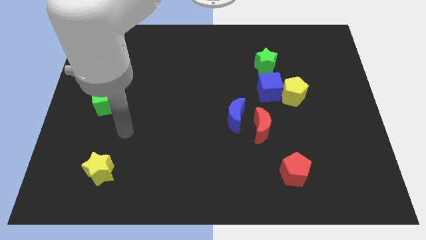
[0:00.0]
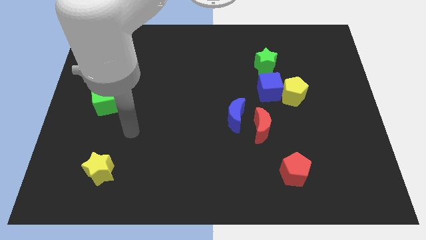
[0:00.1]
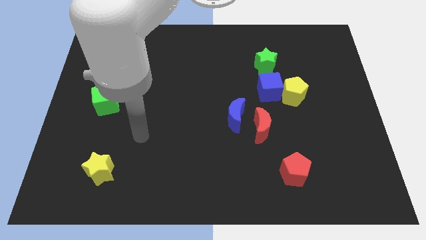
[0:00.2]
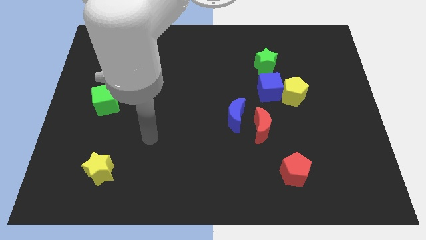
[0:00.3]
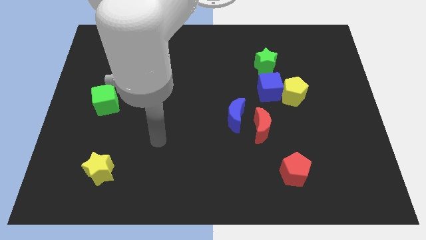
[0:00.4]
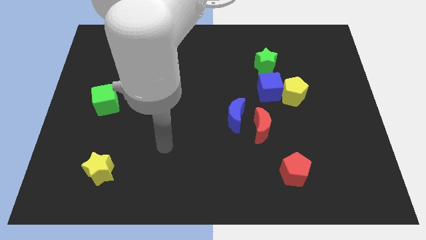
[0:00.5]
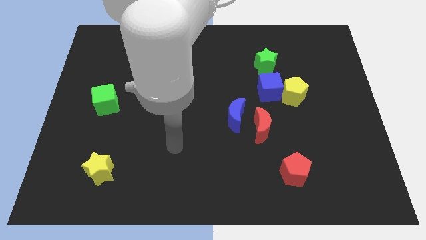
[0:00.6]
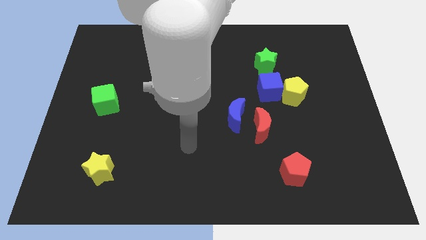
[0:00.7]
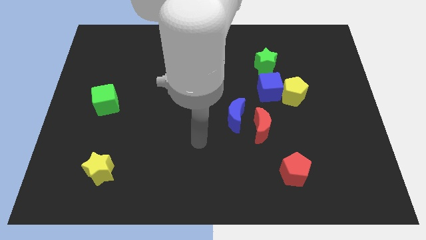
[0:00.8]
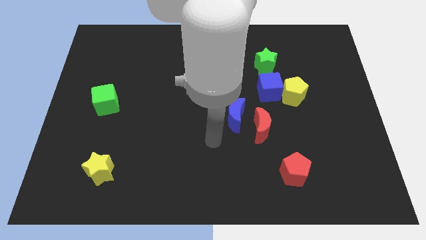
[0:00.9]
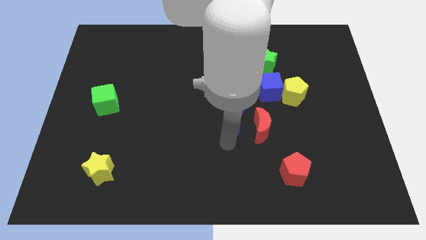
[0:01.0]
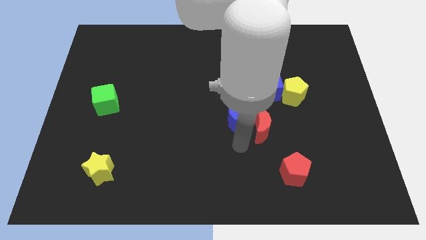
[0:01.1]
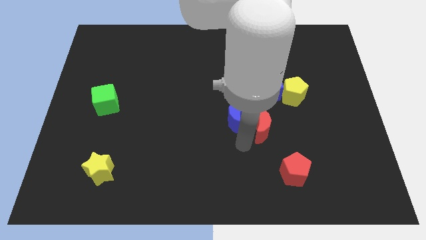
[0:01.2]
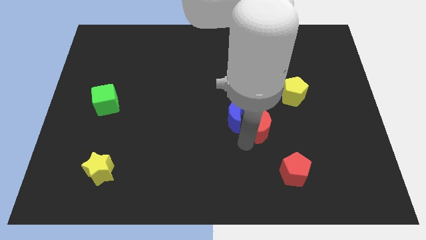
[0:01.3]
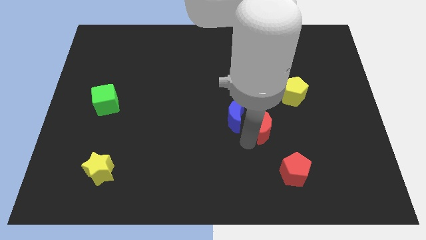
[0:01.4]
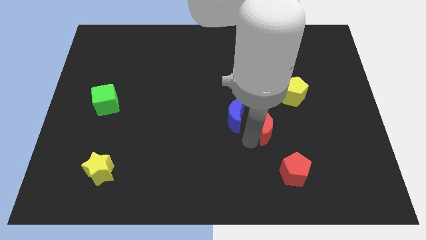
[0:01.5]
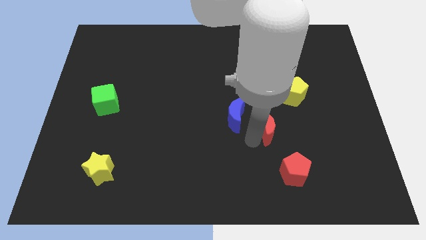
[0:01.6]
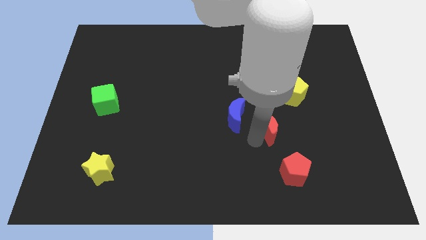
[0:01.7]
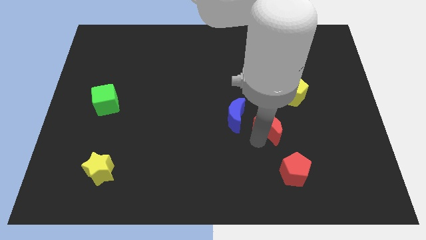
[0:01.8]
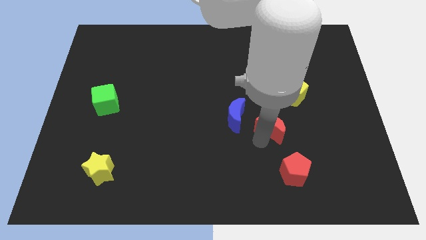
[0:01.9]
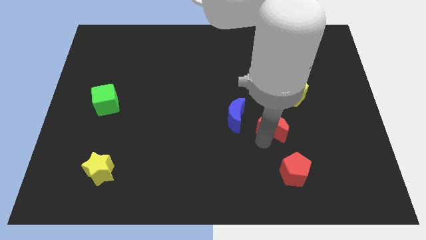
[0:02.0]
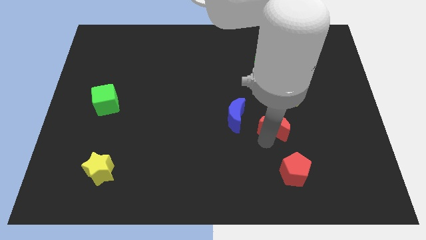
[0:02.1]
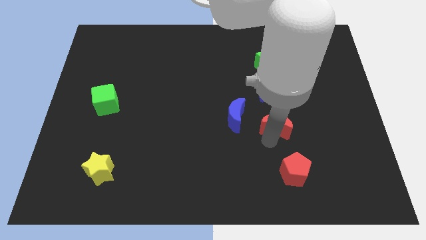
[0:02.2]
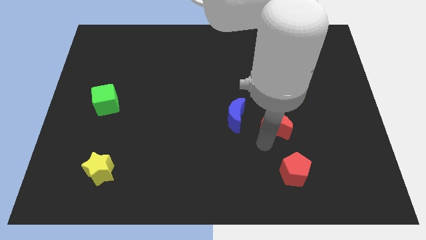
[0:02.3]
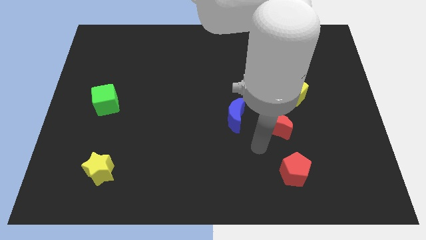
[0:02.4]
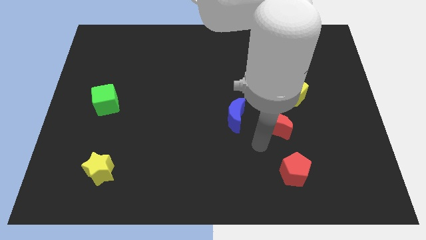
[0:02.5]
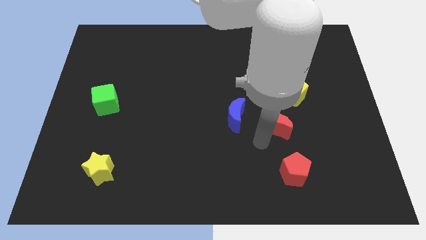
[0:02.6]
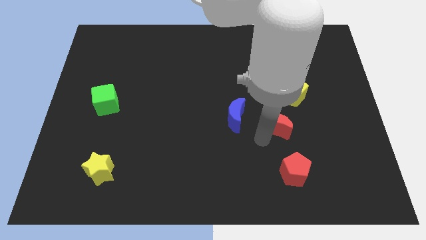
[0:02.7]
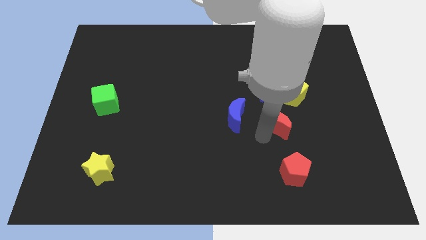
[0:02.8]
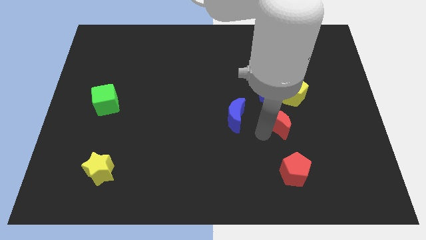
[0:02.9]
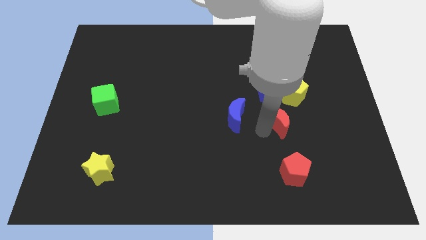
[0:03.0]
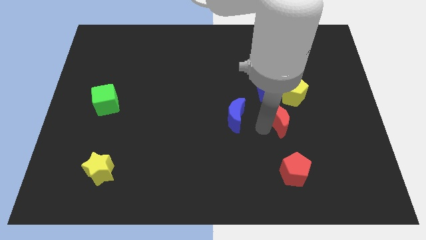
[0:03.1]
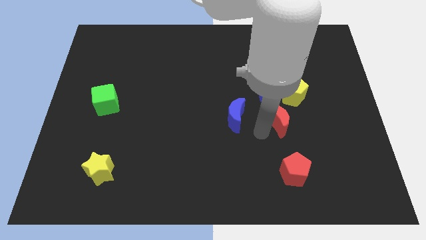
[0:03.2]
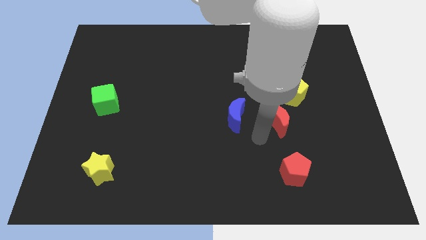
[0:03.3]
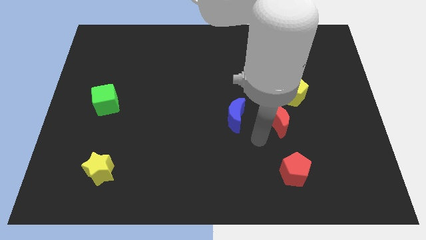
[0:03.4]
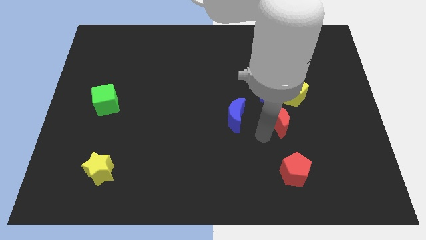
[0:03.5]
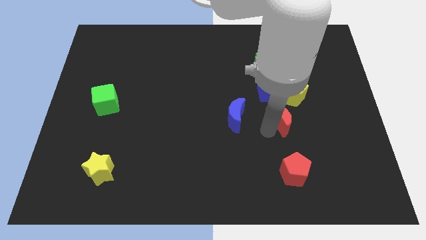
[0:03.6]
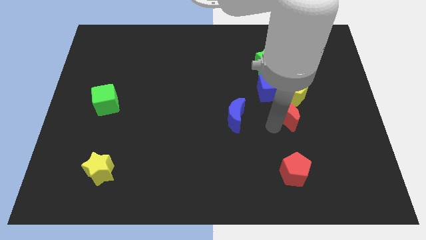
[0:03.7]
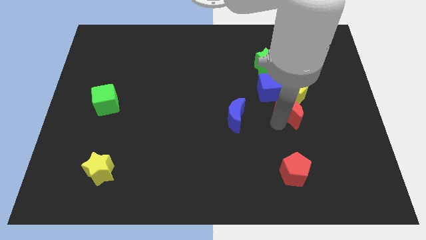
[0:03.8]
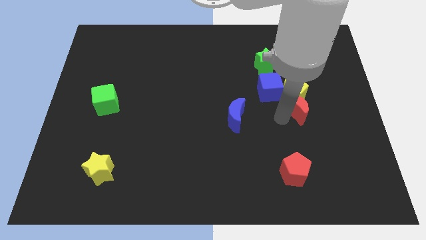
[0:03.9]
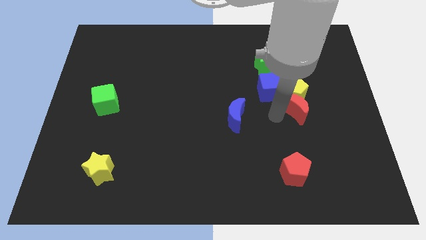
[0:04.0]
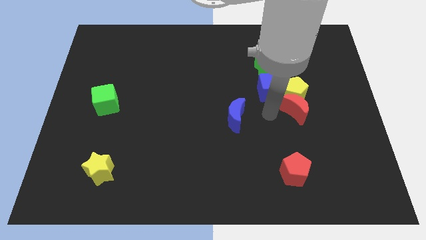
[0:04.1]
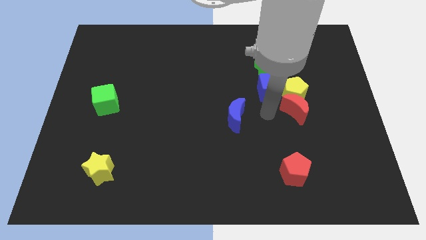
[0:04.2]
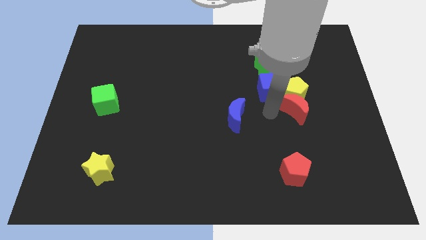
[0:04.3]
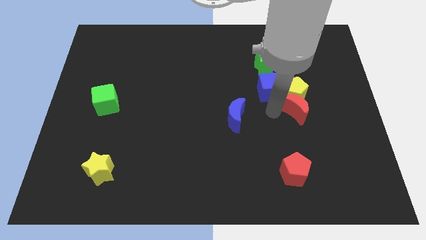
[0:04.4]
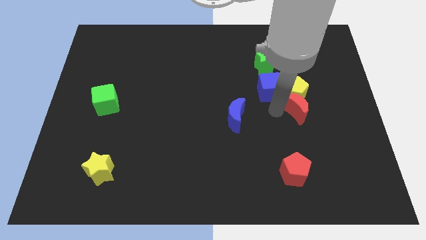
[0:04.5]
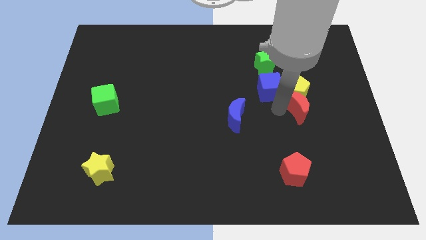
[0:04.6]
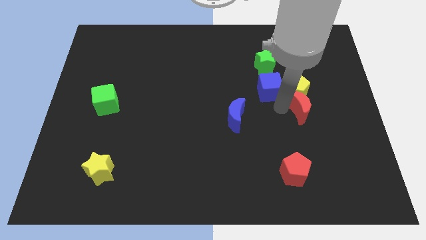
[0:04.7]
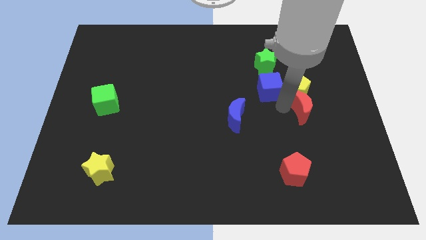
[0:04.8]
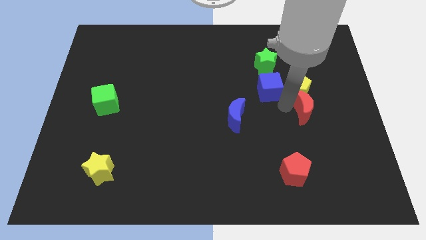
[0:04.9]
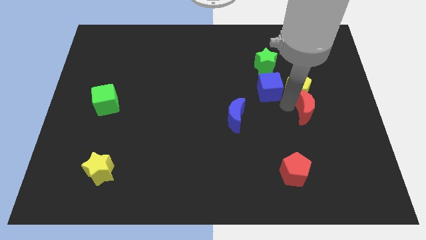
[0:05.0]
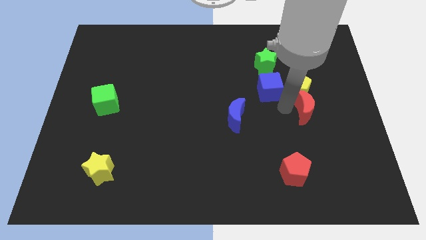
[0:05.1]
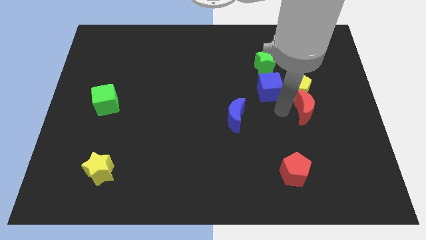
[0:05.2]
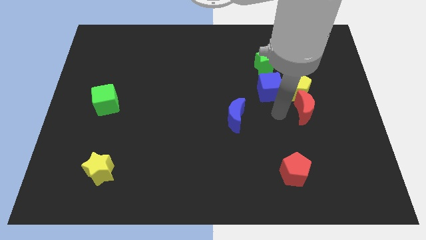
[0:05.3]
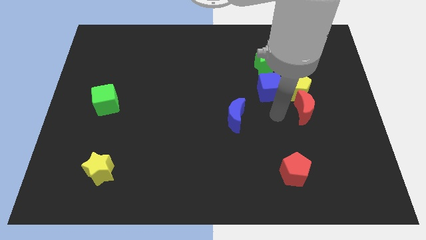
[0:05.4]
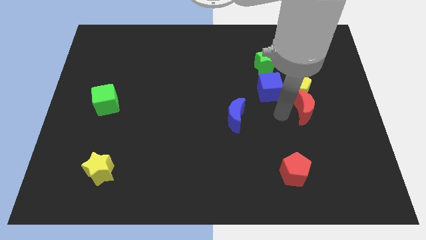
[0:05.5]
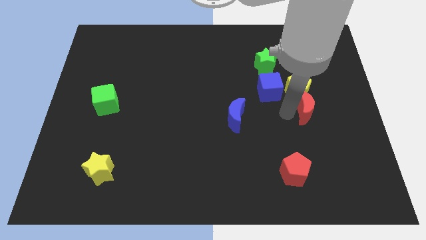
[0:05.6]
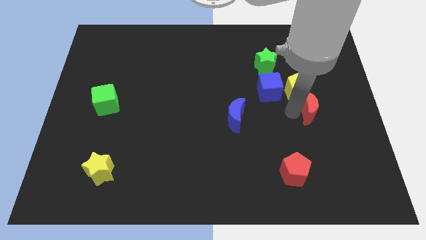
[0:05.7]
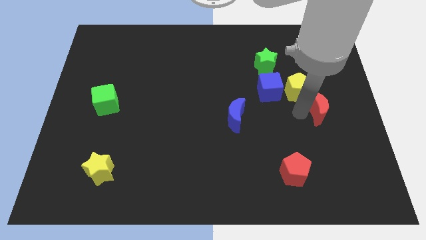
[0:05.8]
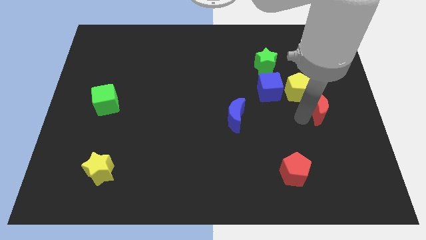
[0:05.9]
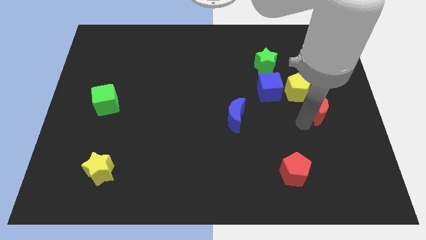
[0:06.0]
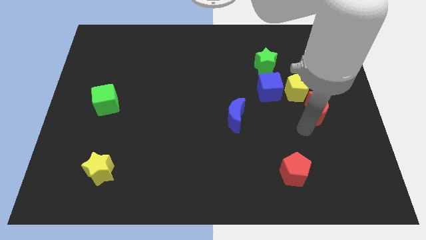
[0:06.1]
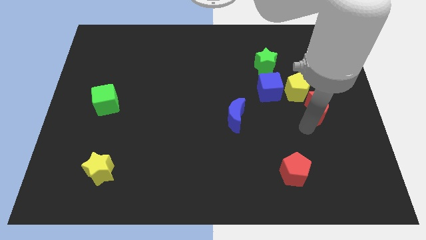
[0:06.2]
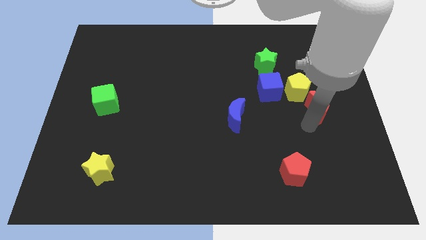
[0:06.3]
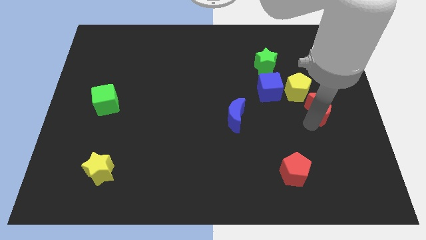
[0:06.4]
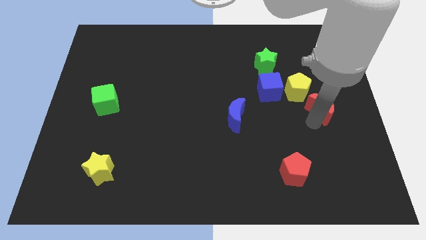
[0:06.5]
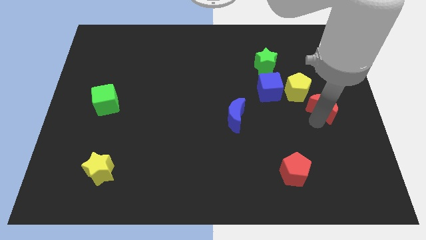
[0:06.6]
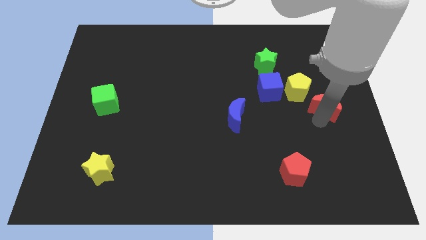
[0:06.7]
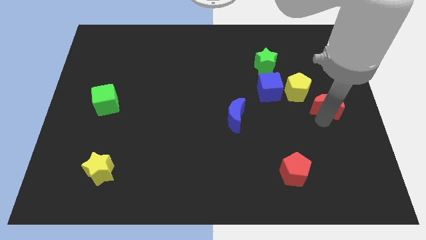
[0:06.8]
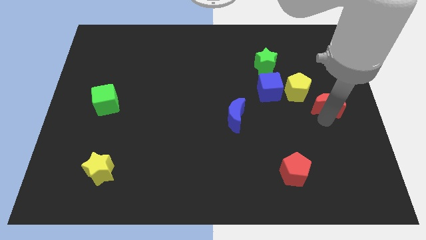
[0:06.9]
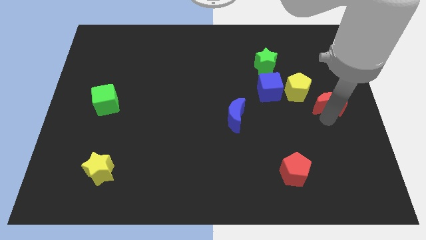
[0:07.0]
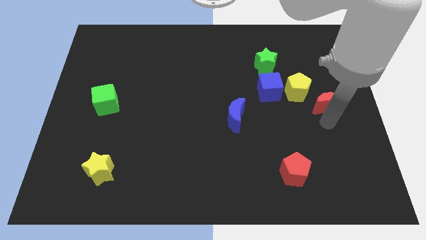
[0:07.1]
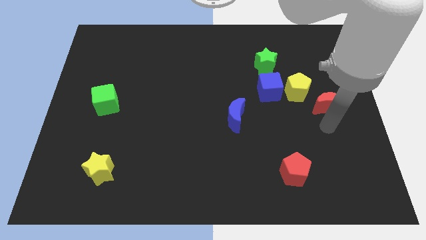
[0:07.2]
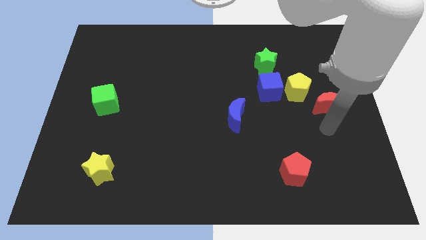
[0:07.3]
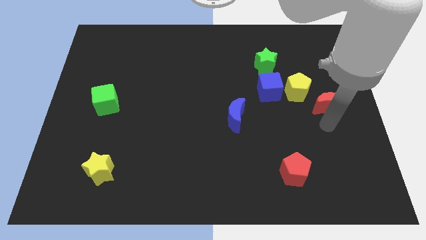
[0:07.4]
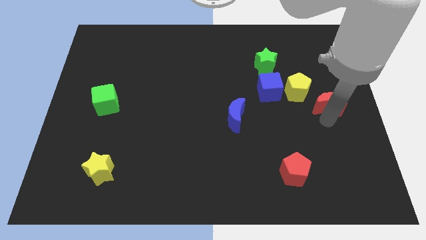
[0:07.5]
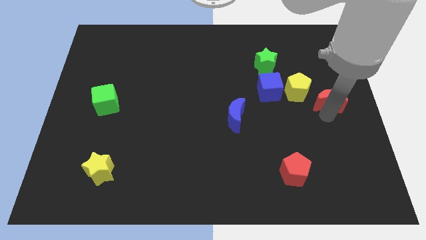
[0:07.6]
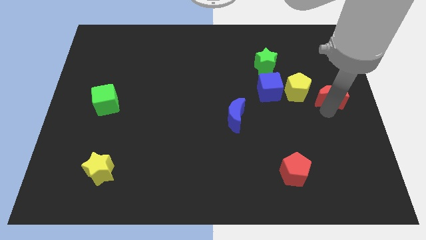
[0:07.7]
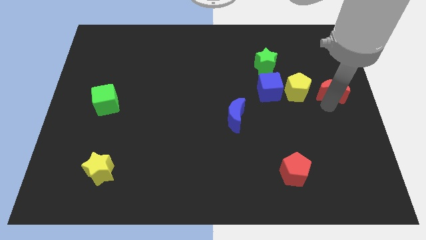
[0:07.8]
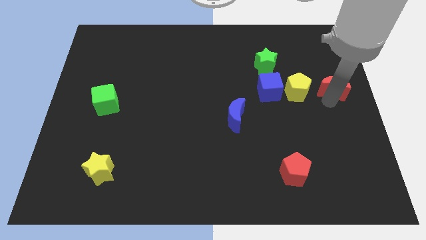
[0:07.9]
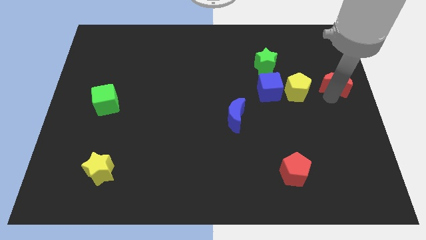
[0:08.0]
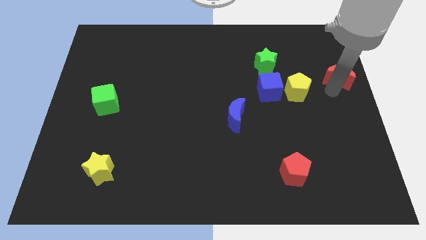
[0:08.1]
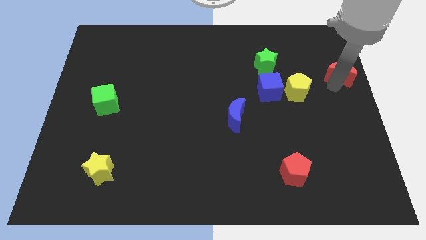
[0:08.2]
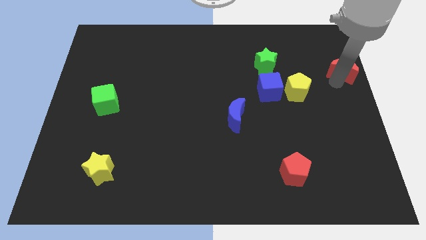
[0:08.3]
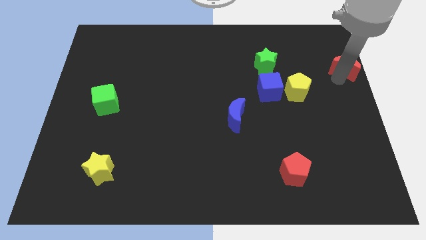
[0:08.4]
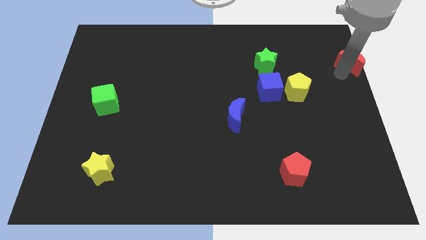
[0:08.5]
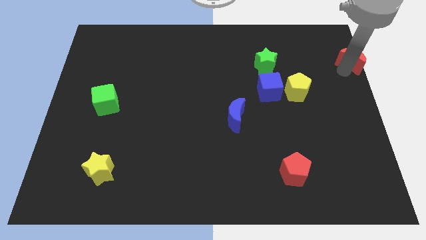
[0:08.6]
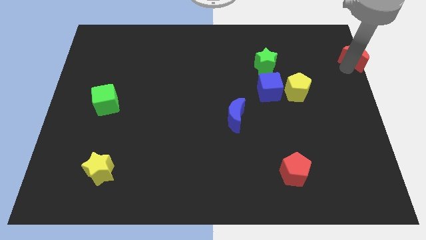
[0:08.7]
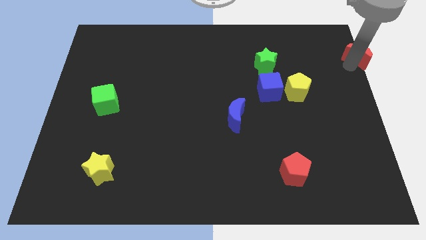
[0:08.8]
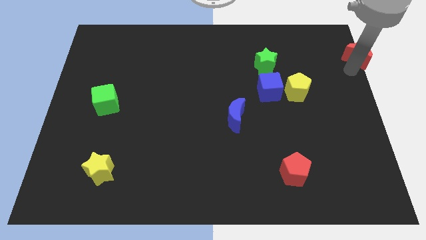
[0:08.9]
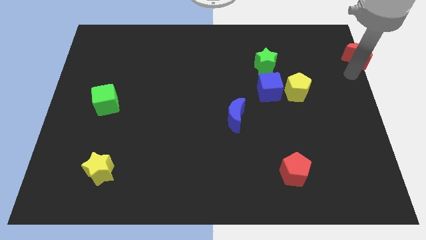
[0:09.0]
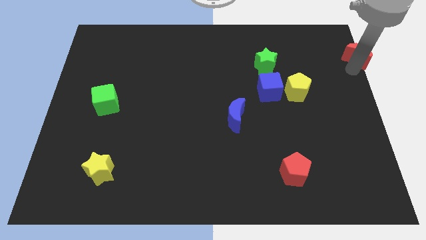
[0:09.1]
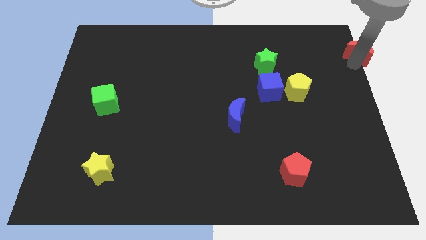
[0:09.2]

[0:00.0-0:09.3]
put the red moon to the top right
